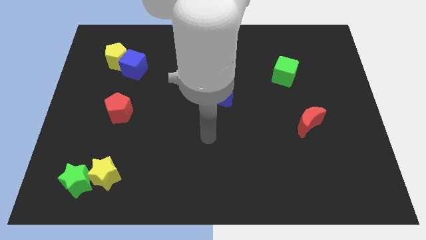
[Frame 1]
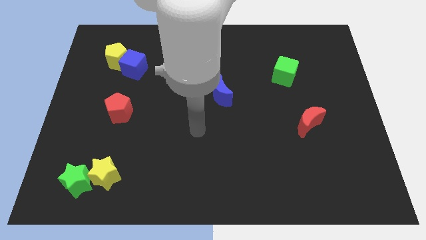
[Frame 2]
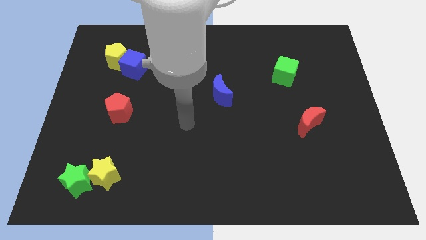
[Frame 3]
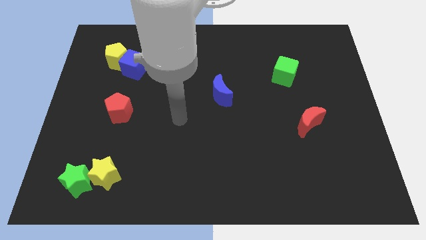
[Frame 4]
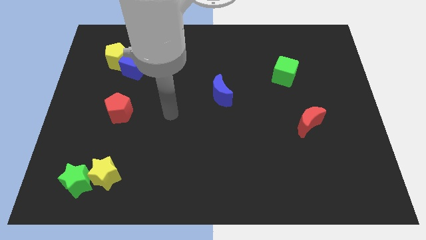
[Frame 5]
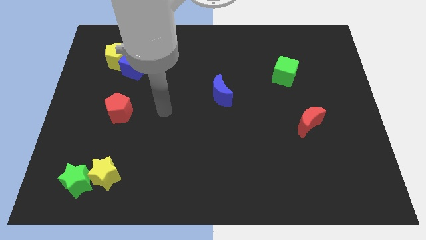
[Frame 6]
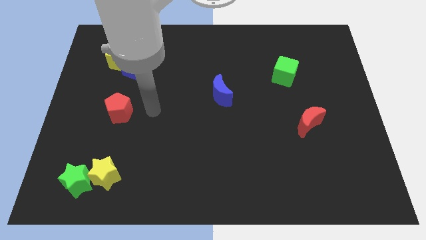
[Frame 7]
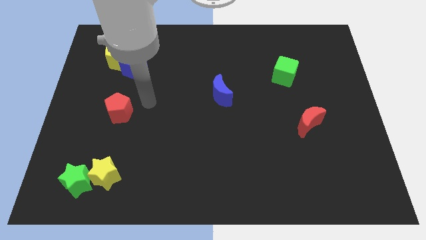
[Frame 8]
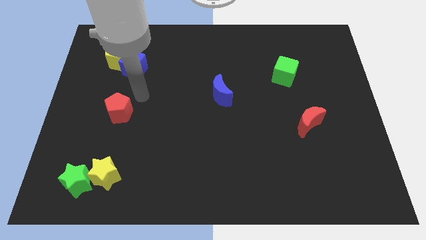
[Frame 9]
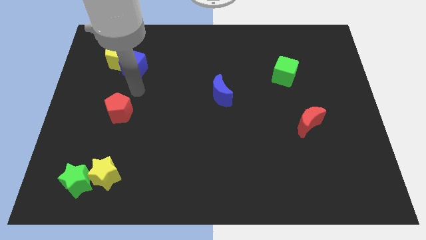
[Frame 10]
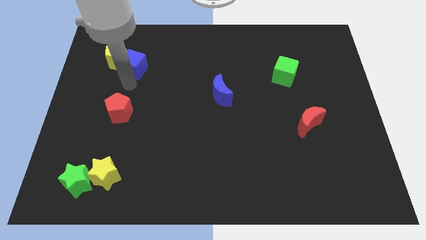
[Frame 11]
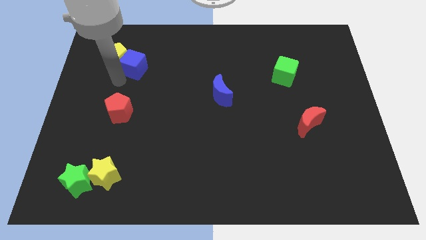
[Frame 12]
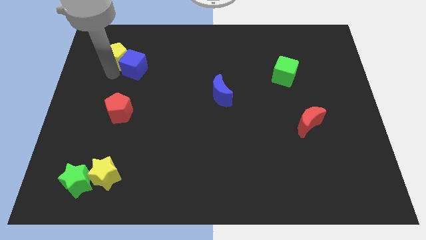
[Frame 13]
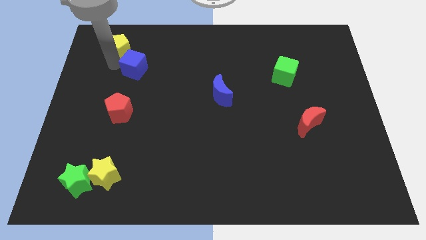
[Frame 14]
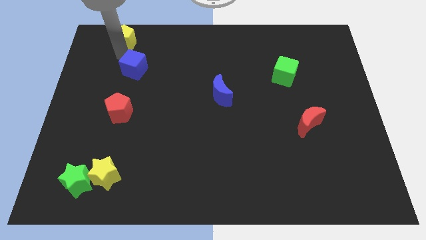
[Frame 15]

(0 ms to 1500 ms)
separate the blue cube from the yellow pentagon

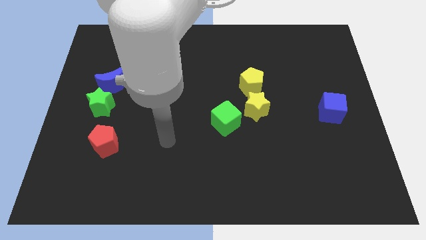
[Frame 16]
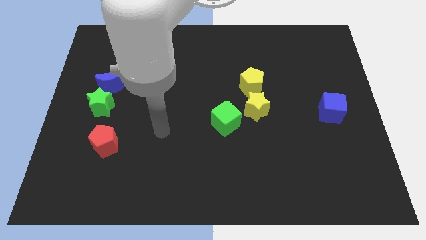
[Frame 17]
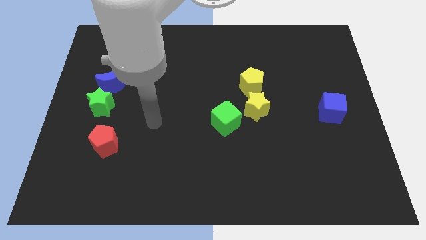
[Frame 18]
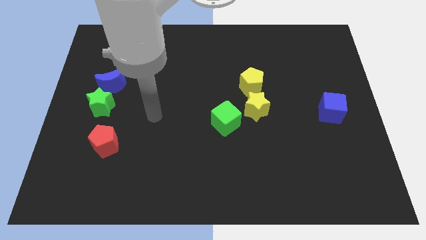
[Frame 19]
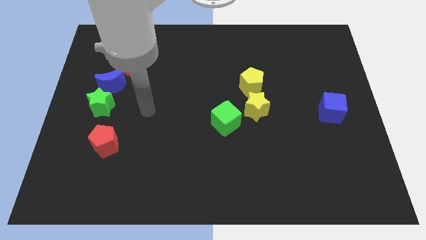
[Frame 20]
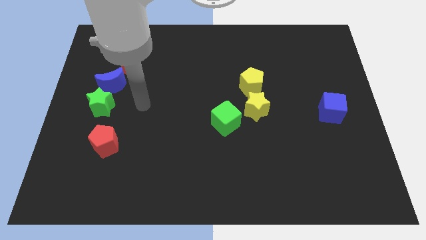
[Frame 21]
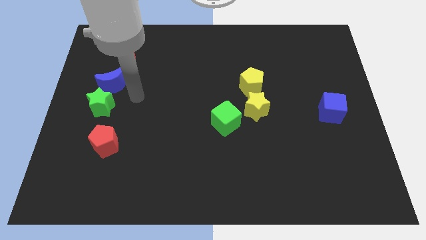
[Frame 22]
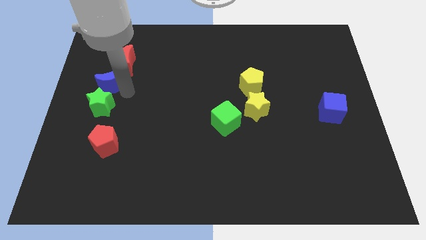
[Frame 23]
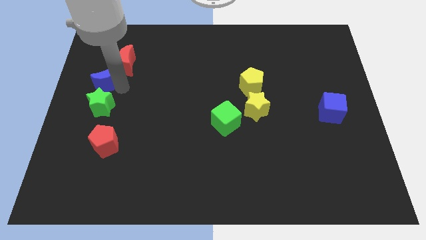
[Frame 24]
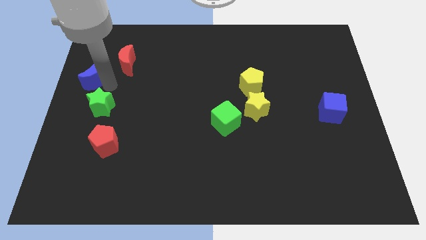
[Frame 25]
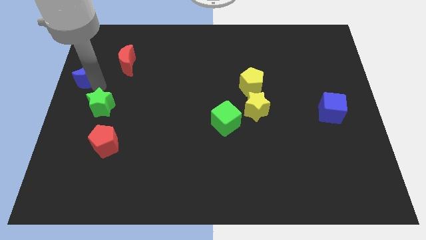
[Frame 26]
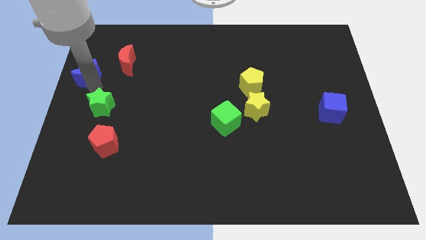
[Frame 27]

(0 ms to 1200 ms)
move the green star away from the blue moon

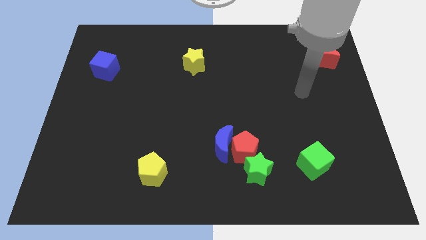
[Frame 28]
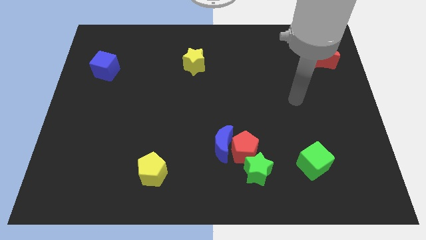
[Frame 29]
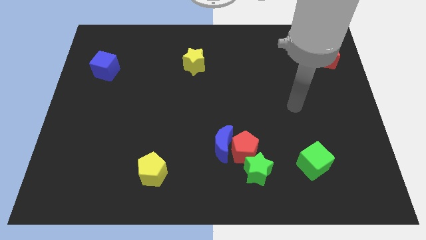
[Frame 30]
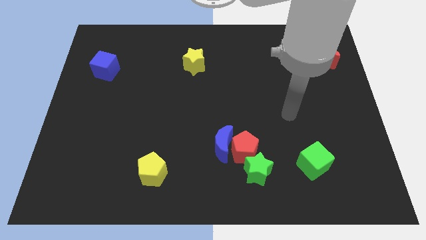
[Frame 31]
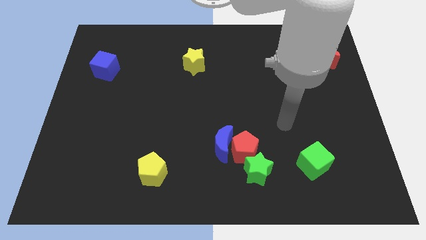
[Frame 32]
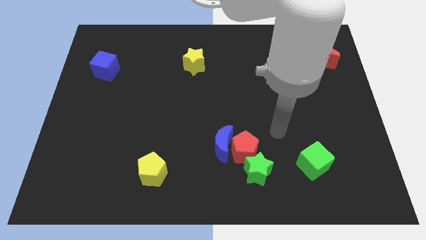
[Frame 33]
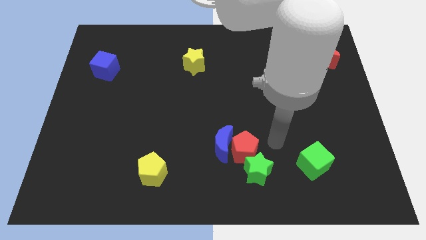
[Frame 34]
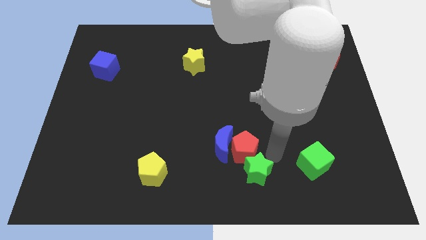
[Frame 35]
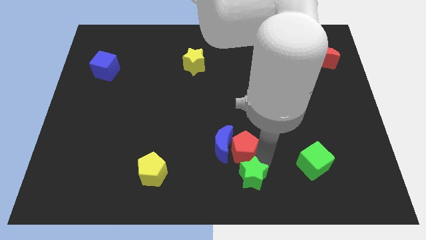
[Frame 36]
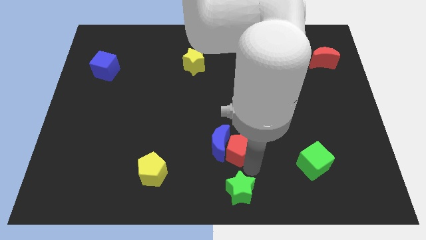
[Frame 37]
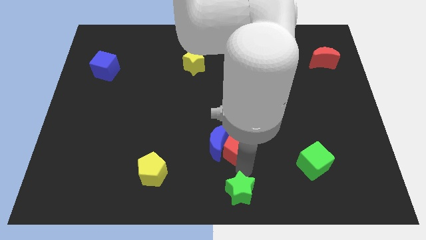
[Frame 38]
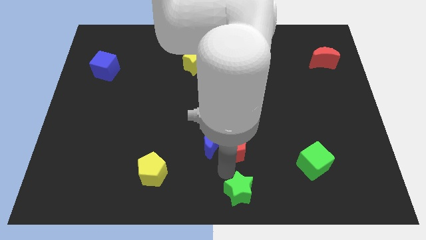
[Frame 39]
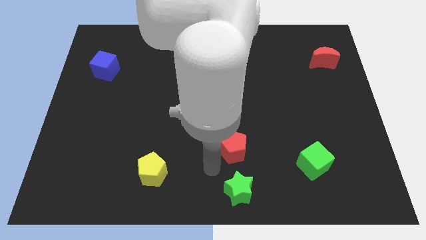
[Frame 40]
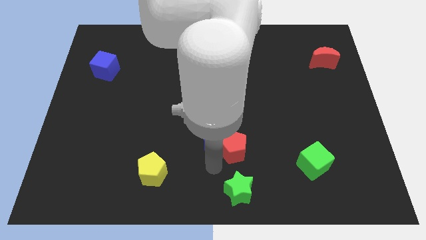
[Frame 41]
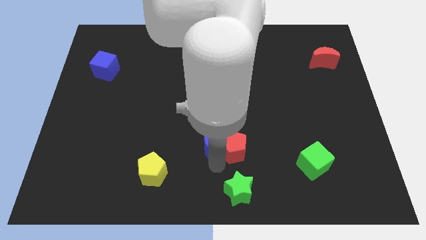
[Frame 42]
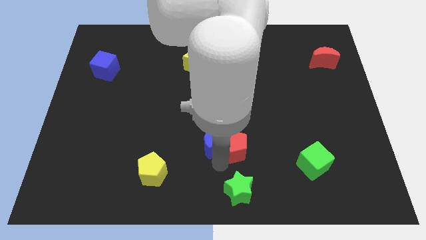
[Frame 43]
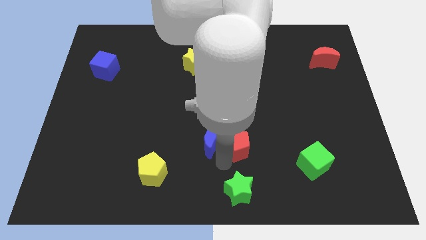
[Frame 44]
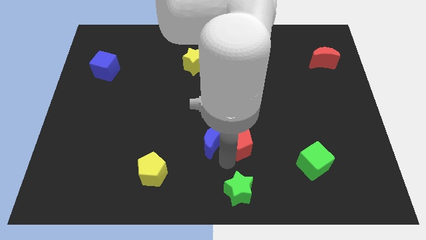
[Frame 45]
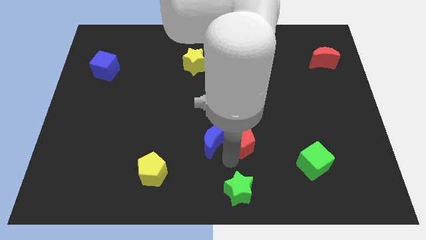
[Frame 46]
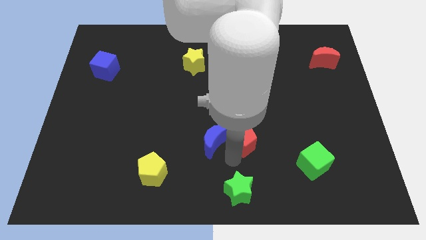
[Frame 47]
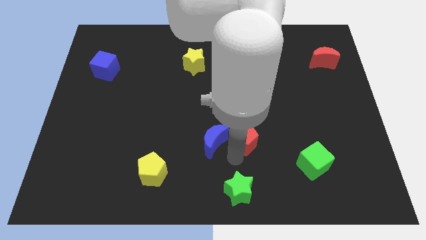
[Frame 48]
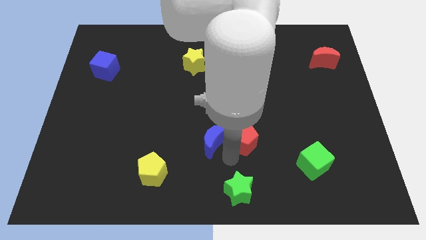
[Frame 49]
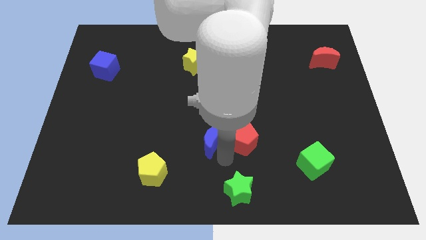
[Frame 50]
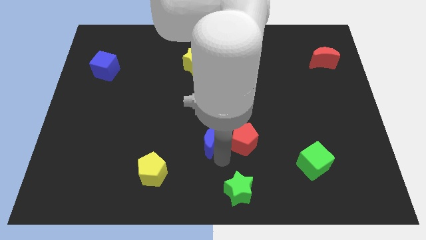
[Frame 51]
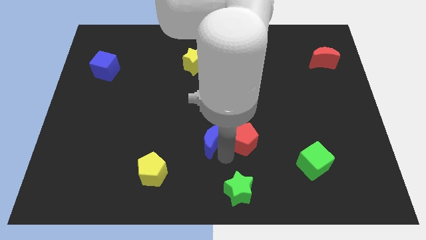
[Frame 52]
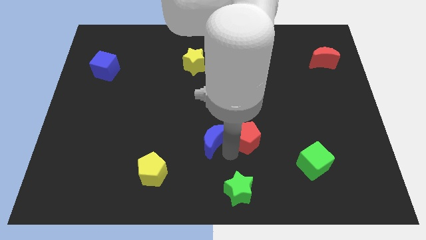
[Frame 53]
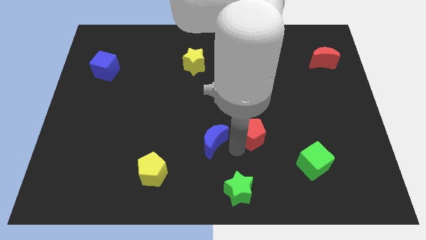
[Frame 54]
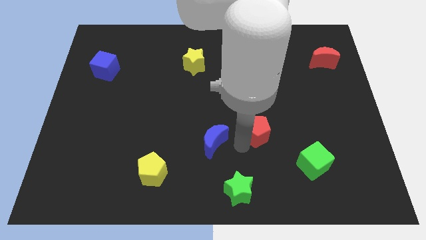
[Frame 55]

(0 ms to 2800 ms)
move the red pentagon away from the blue moon and green star

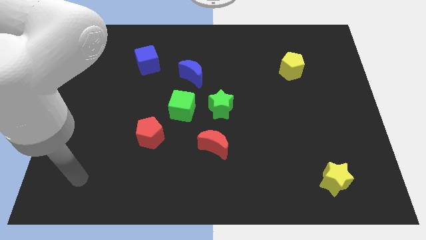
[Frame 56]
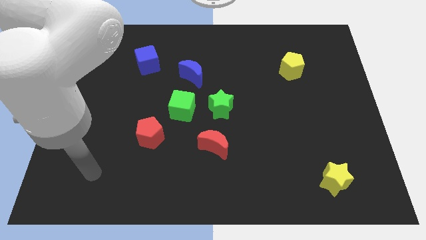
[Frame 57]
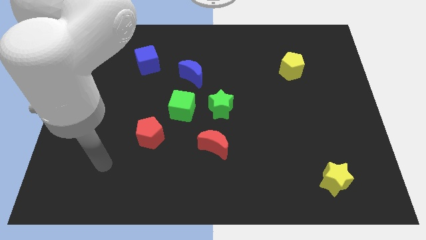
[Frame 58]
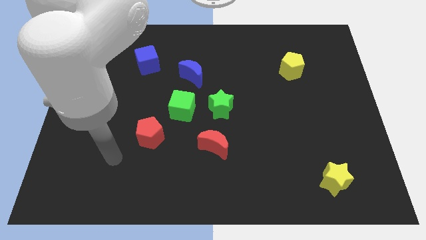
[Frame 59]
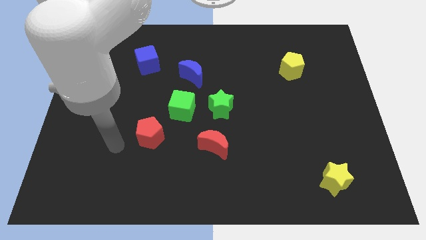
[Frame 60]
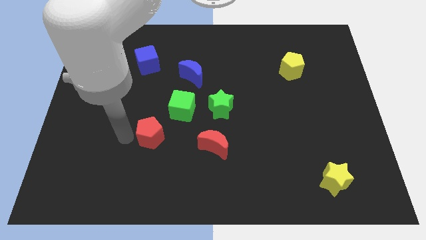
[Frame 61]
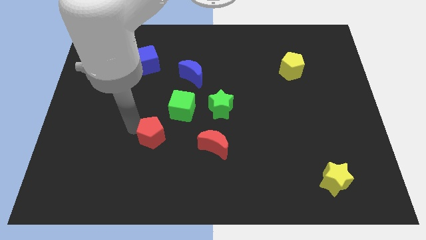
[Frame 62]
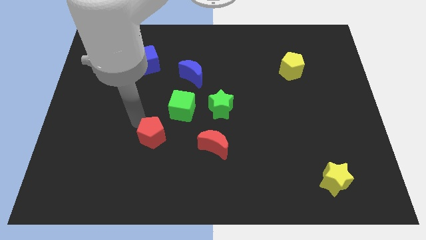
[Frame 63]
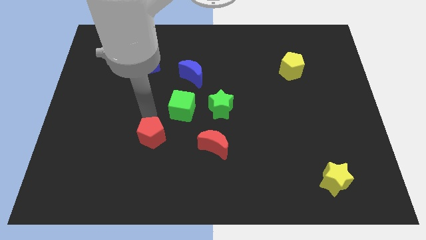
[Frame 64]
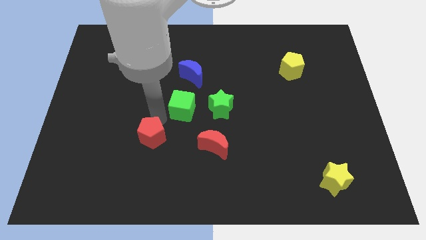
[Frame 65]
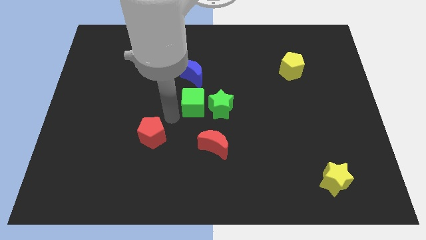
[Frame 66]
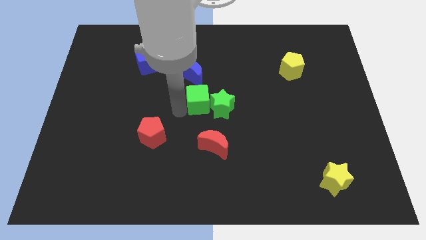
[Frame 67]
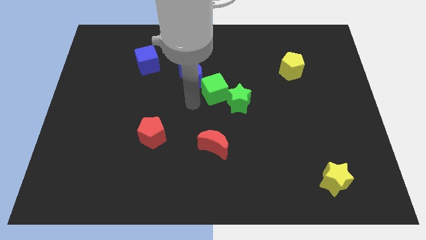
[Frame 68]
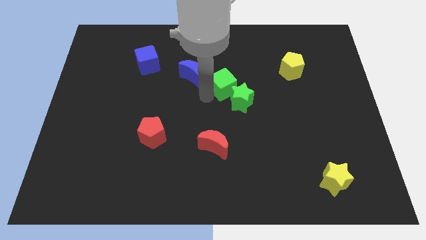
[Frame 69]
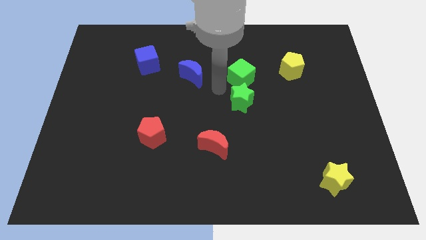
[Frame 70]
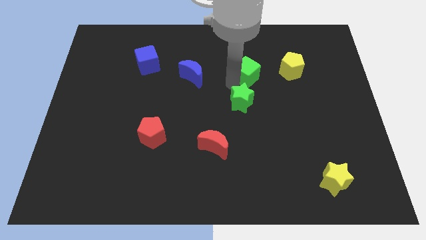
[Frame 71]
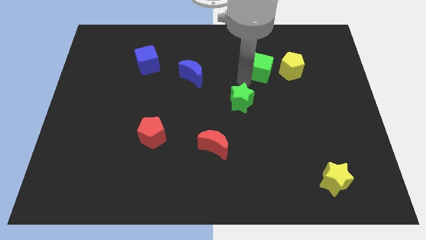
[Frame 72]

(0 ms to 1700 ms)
separate the green star from the green cube

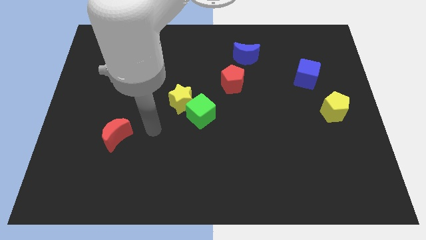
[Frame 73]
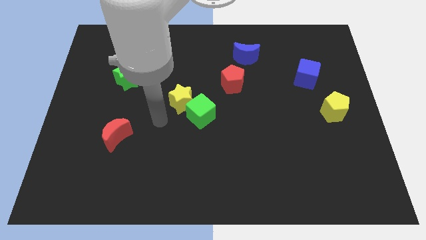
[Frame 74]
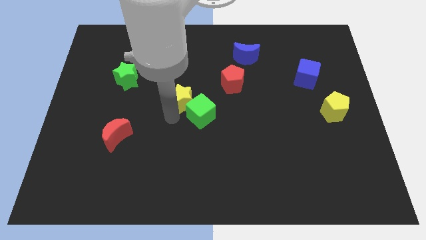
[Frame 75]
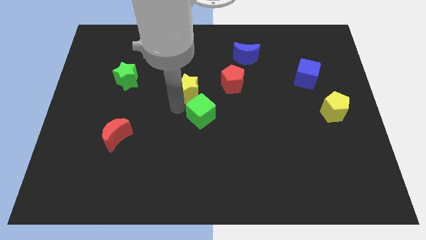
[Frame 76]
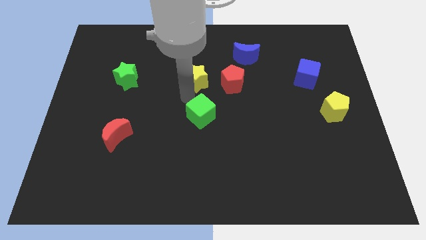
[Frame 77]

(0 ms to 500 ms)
move the green cube away from the yellow star

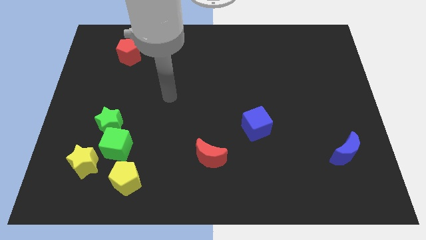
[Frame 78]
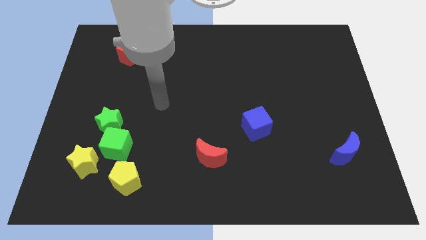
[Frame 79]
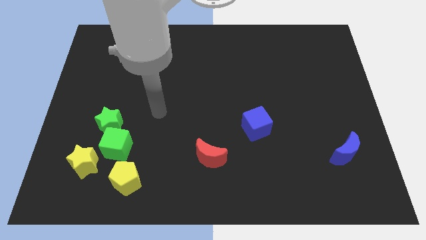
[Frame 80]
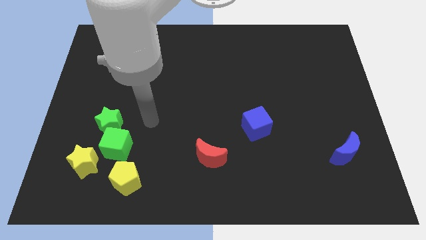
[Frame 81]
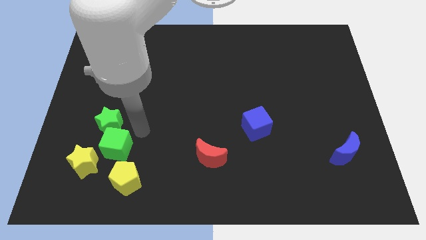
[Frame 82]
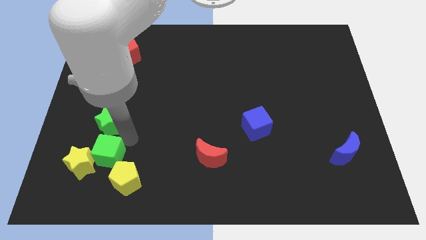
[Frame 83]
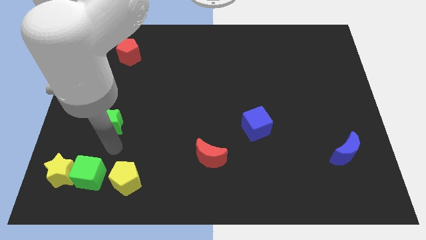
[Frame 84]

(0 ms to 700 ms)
move the green star away from the green cube

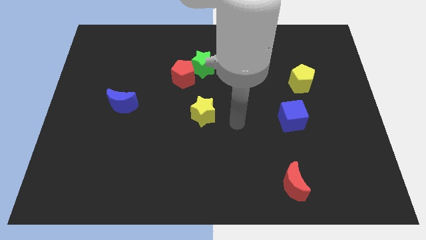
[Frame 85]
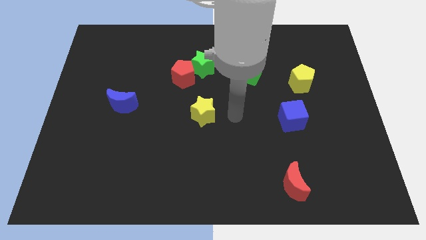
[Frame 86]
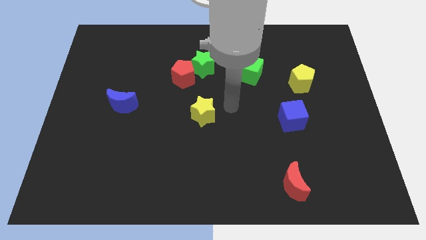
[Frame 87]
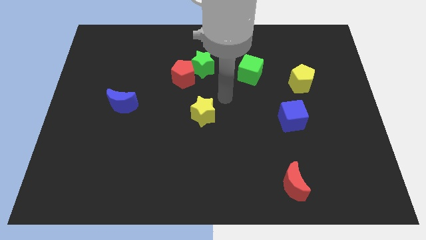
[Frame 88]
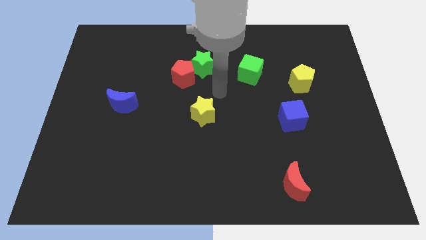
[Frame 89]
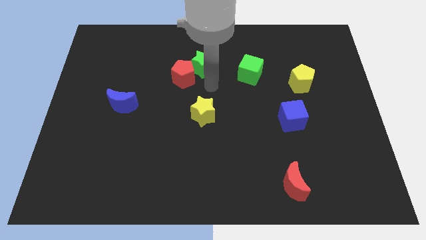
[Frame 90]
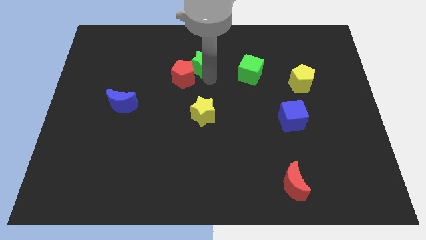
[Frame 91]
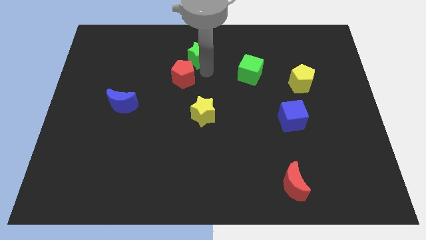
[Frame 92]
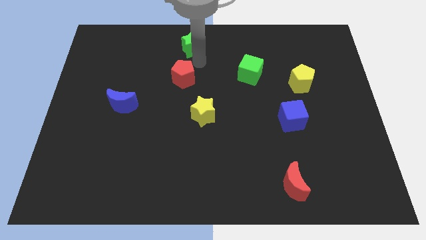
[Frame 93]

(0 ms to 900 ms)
pull the red pentagon apart from the green star
